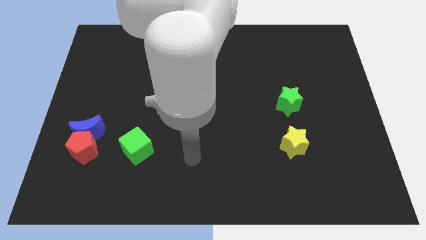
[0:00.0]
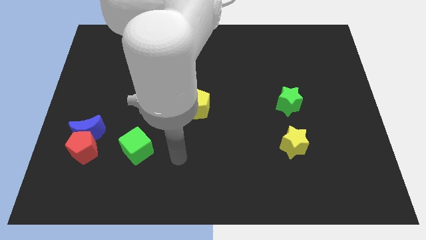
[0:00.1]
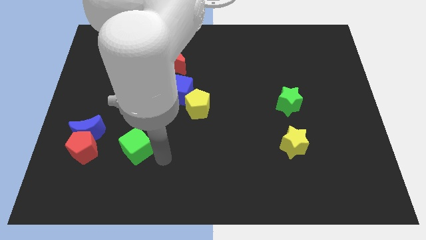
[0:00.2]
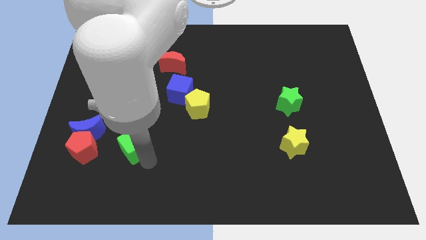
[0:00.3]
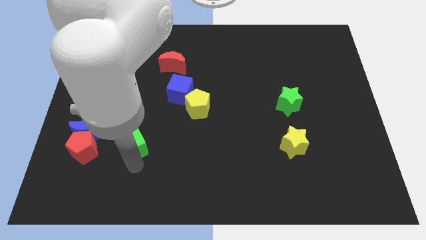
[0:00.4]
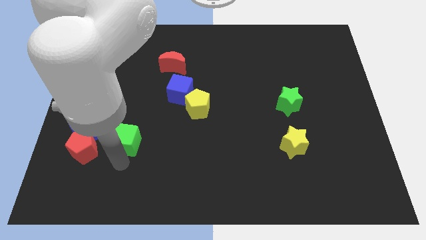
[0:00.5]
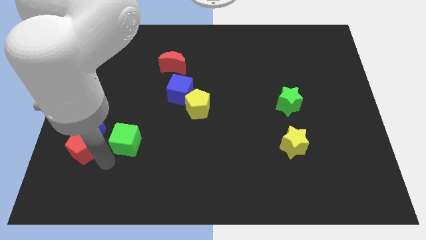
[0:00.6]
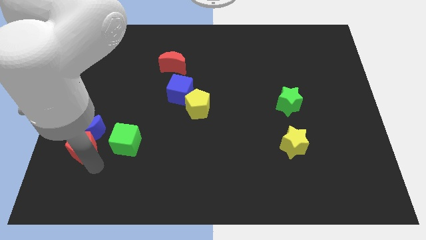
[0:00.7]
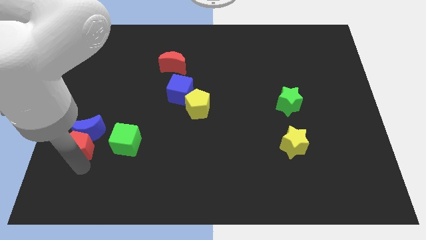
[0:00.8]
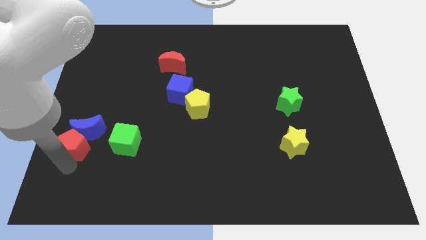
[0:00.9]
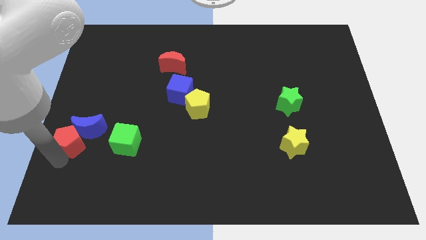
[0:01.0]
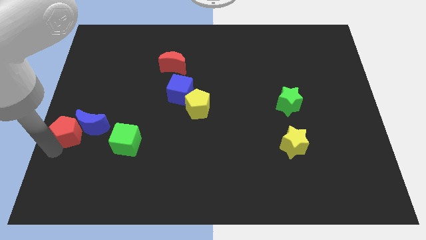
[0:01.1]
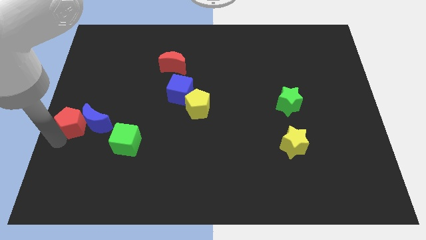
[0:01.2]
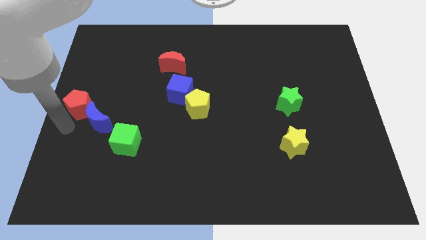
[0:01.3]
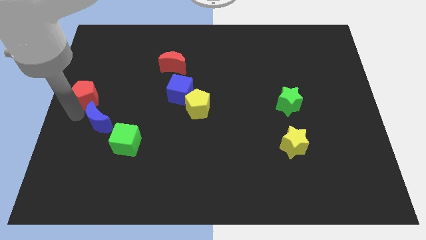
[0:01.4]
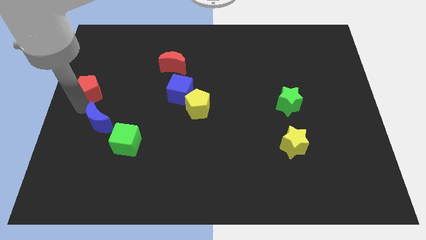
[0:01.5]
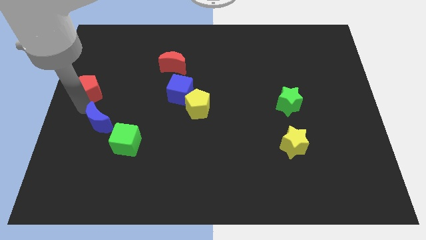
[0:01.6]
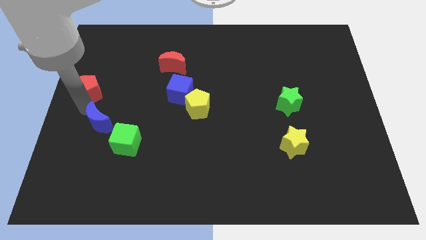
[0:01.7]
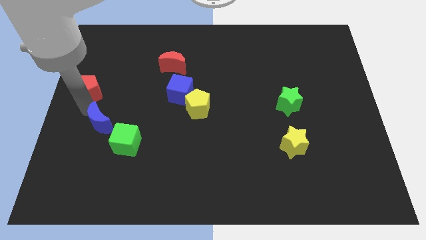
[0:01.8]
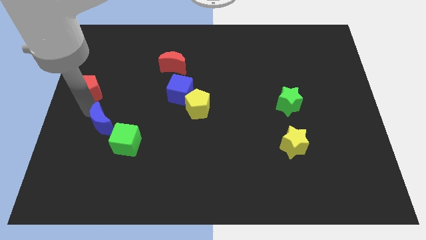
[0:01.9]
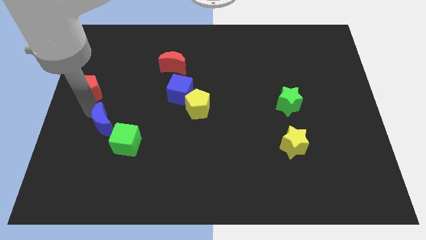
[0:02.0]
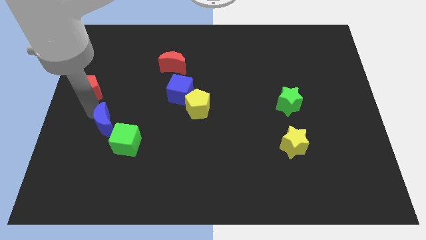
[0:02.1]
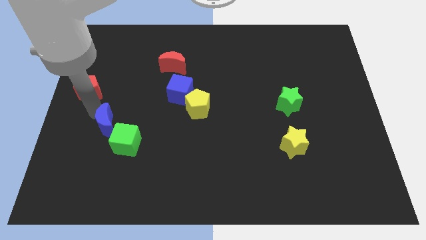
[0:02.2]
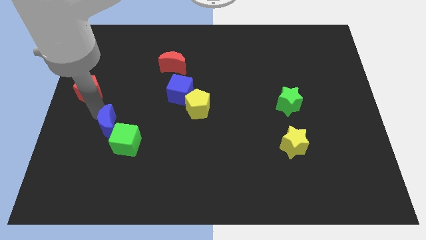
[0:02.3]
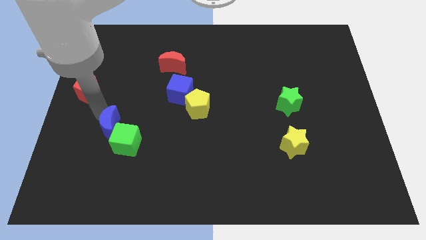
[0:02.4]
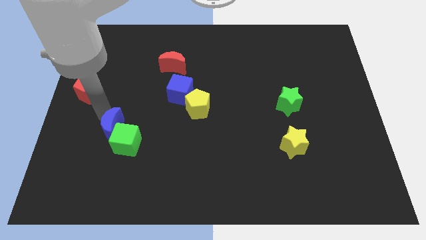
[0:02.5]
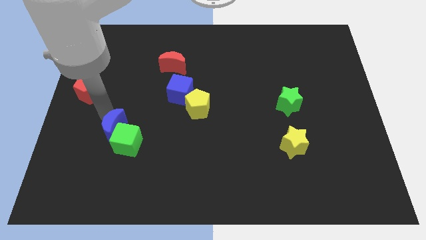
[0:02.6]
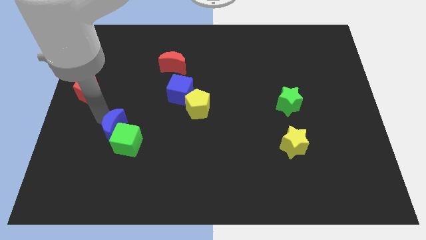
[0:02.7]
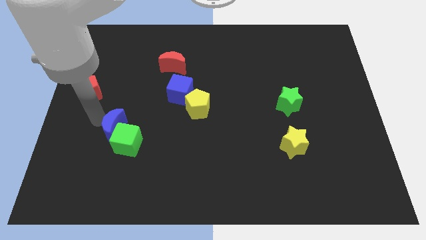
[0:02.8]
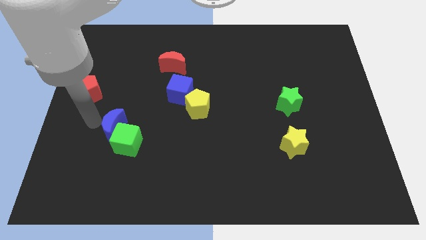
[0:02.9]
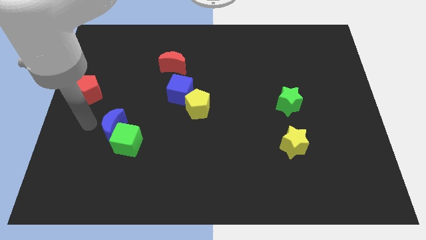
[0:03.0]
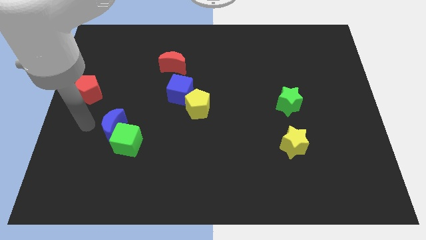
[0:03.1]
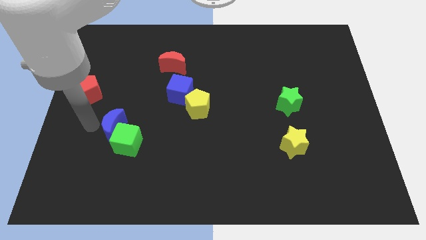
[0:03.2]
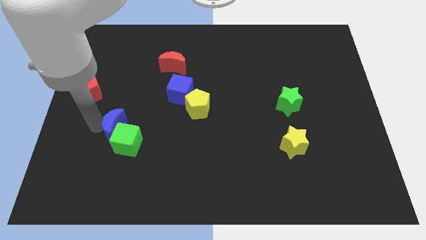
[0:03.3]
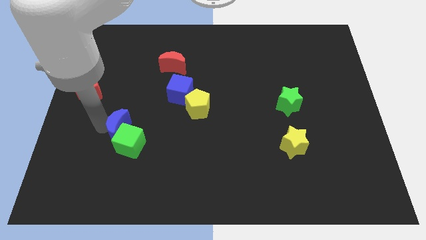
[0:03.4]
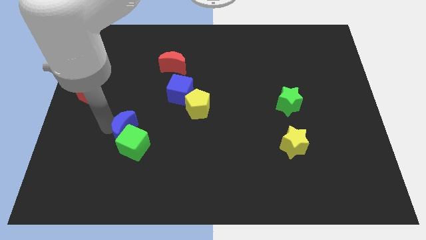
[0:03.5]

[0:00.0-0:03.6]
move the blue moon to the right a bit

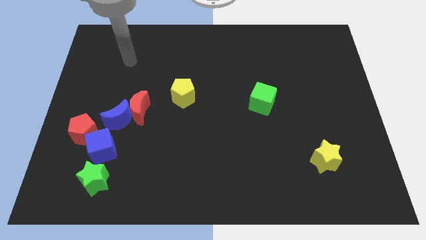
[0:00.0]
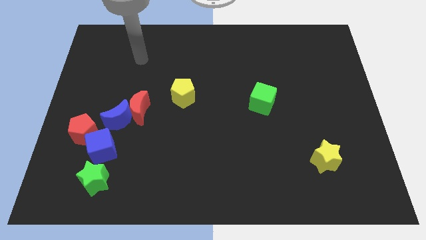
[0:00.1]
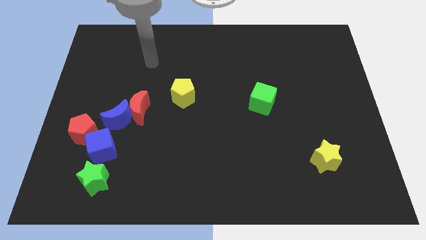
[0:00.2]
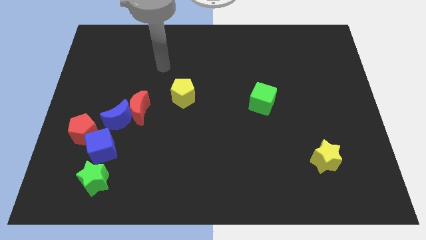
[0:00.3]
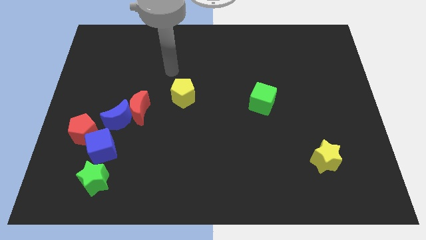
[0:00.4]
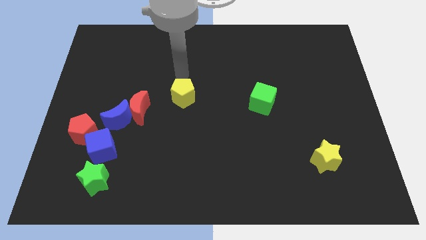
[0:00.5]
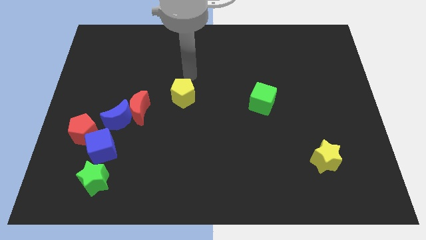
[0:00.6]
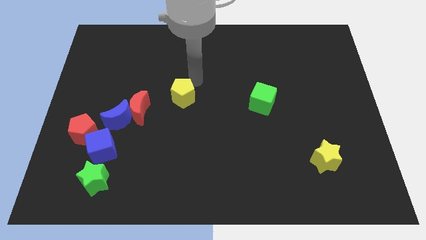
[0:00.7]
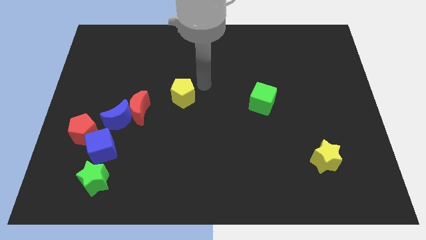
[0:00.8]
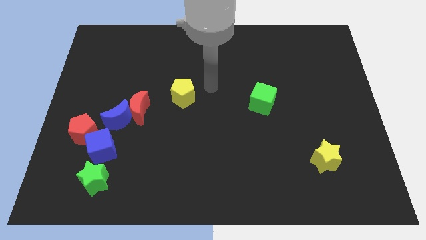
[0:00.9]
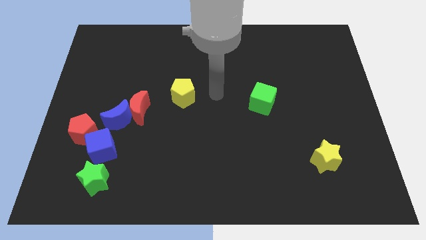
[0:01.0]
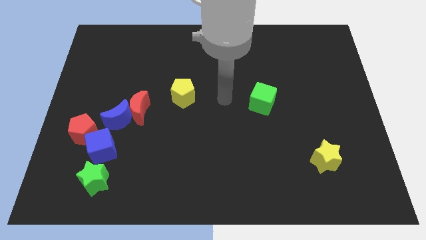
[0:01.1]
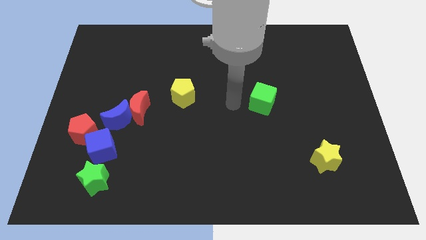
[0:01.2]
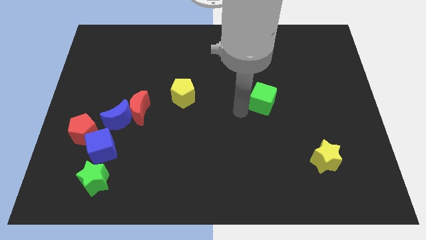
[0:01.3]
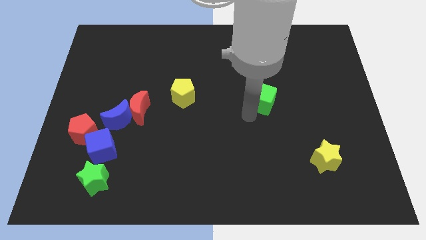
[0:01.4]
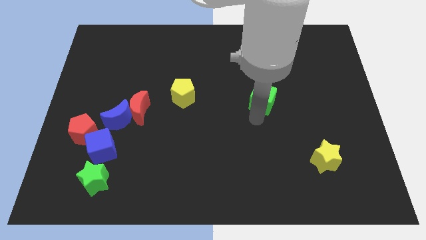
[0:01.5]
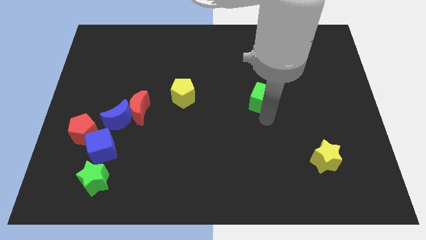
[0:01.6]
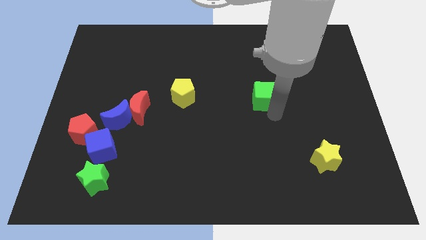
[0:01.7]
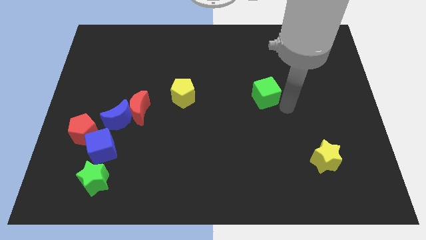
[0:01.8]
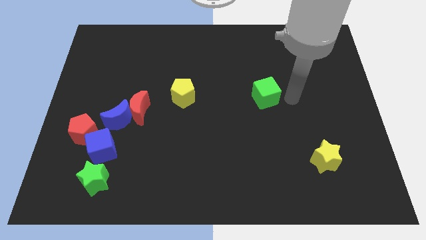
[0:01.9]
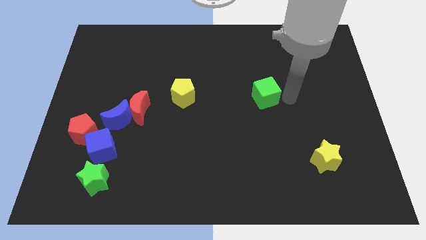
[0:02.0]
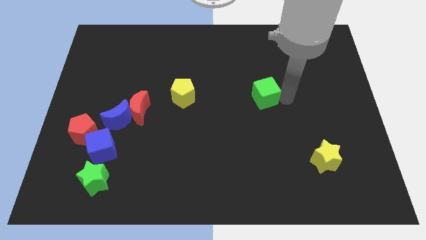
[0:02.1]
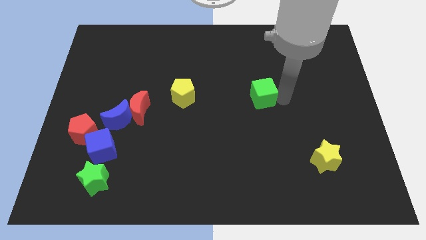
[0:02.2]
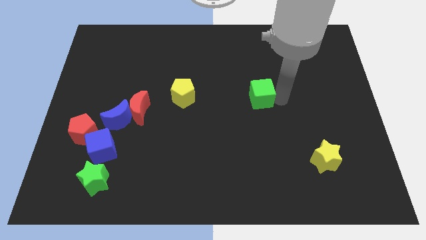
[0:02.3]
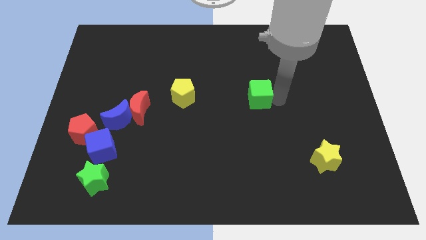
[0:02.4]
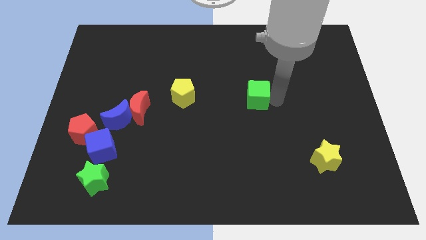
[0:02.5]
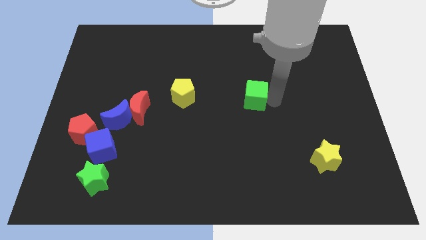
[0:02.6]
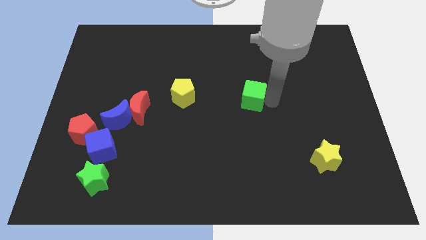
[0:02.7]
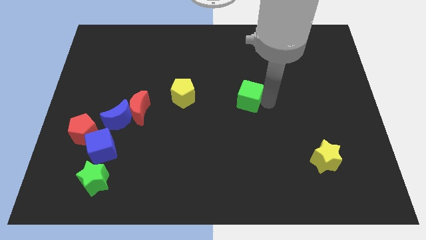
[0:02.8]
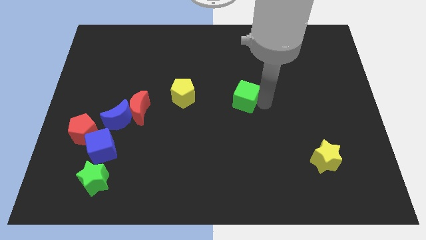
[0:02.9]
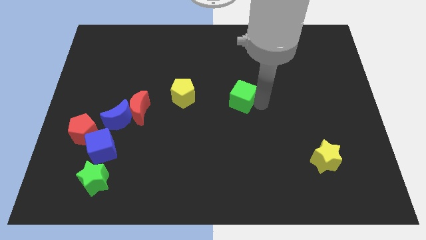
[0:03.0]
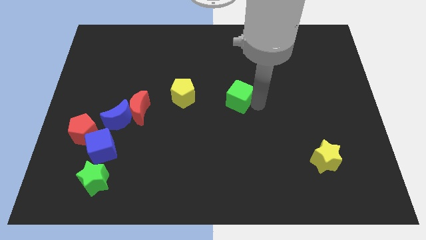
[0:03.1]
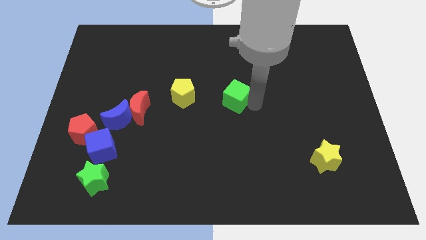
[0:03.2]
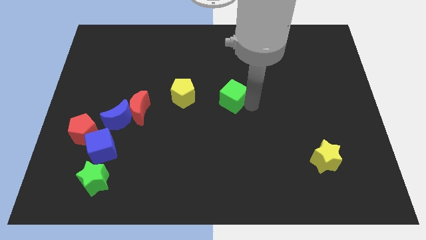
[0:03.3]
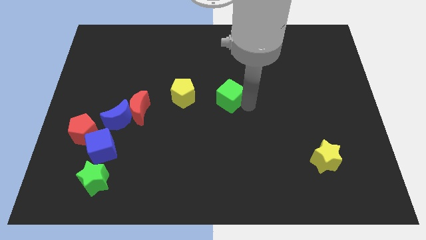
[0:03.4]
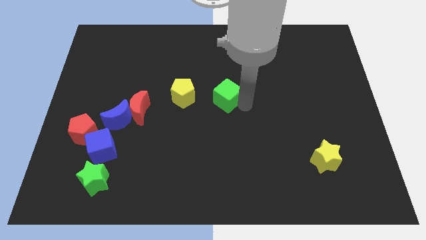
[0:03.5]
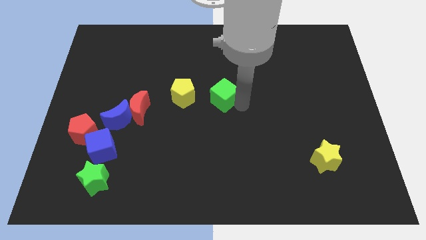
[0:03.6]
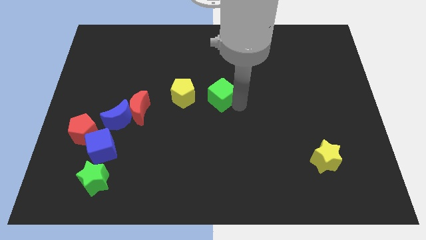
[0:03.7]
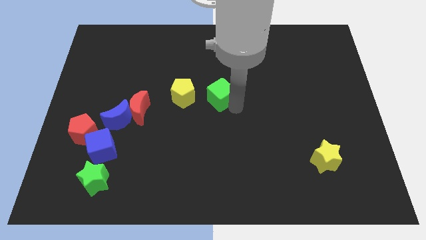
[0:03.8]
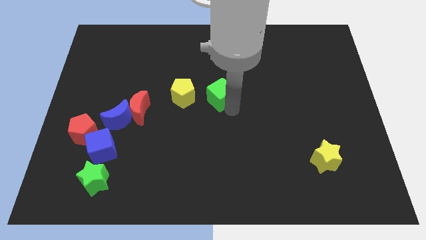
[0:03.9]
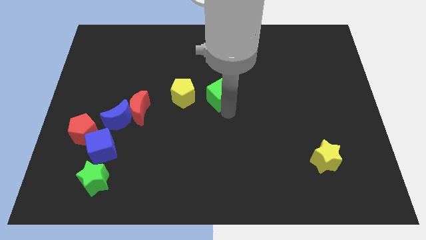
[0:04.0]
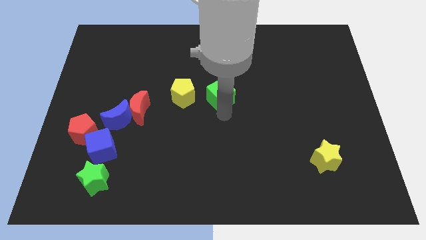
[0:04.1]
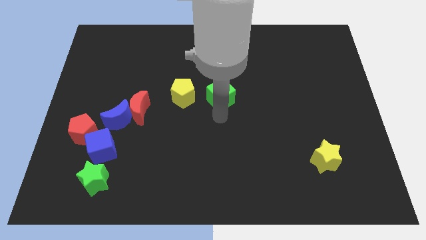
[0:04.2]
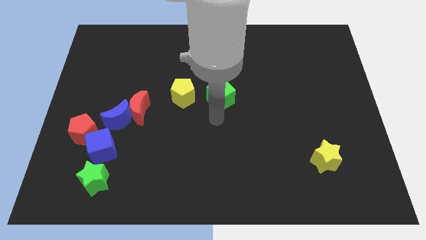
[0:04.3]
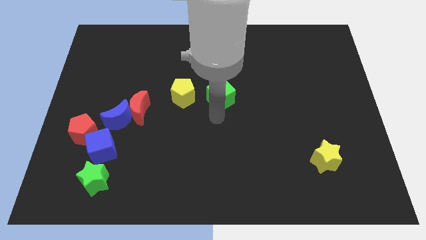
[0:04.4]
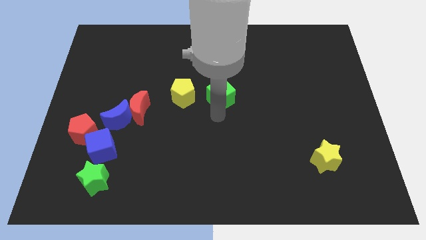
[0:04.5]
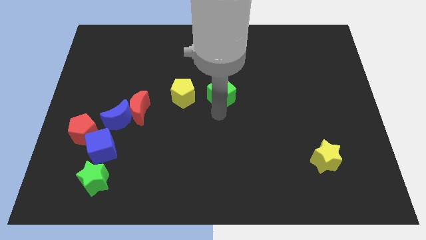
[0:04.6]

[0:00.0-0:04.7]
push the green cube up and to the left a little
